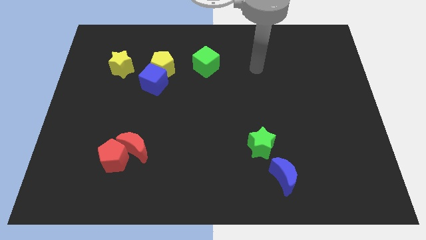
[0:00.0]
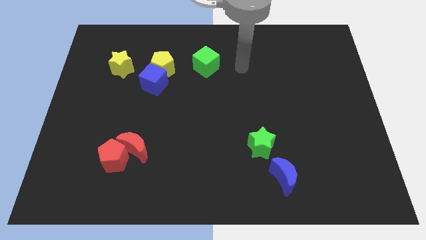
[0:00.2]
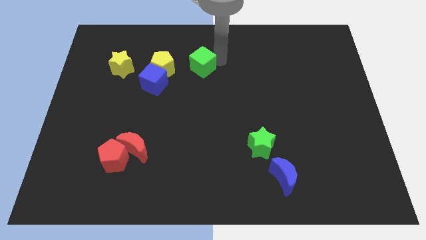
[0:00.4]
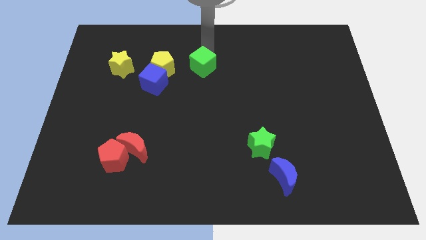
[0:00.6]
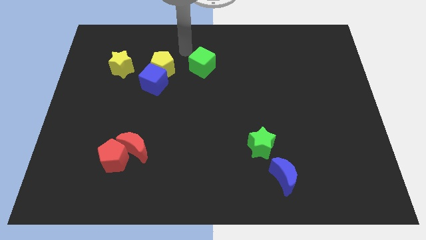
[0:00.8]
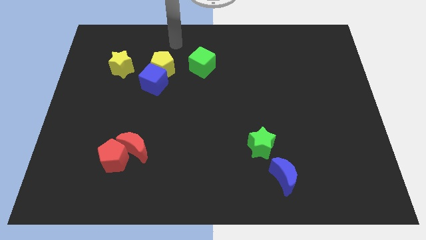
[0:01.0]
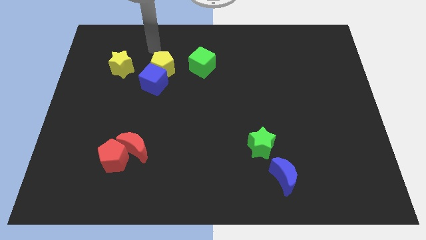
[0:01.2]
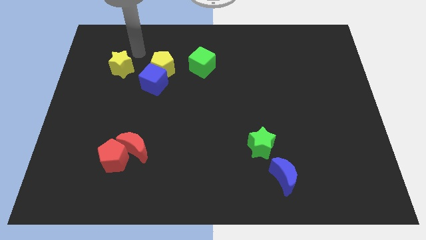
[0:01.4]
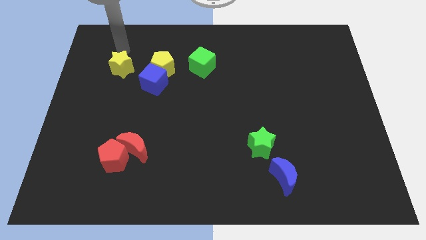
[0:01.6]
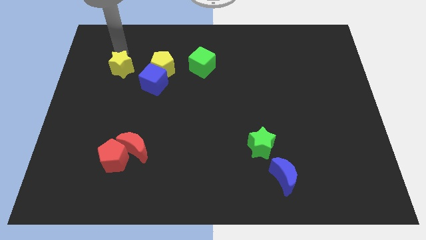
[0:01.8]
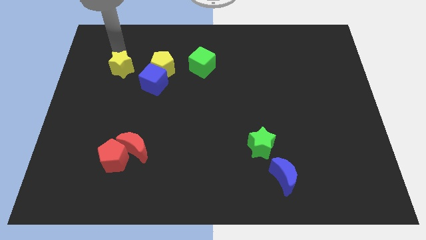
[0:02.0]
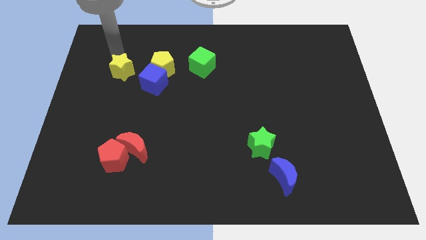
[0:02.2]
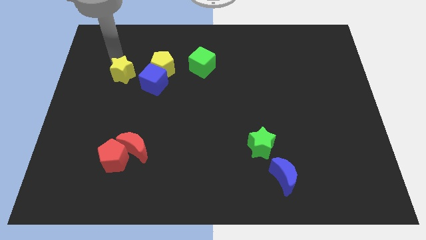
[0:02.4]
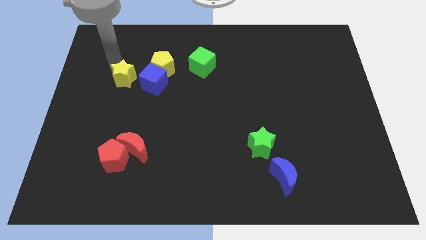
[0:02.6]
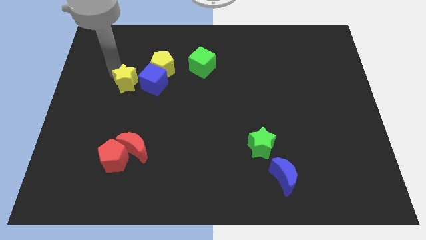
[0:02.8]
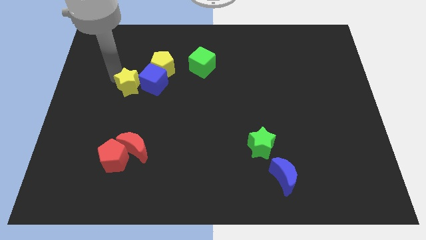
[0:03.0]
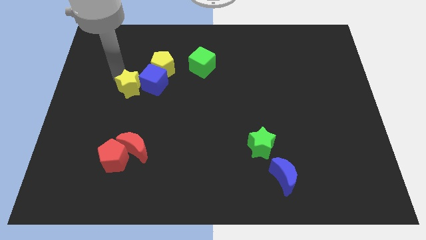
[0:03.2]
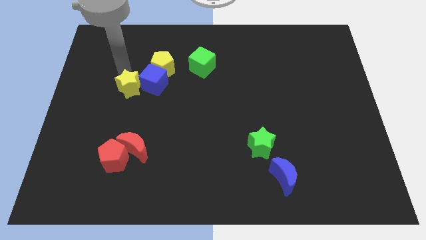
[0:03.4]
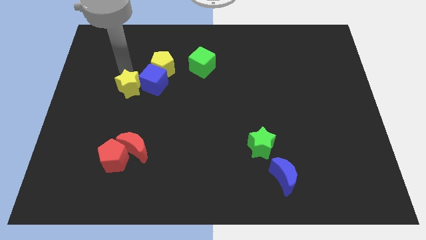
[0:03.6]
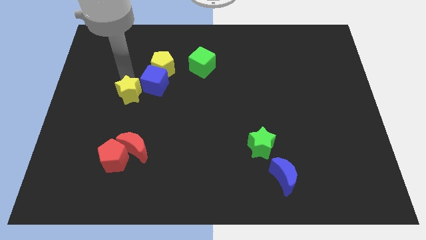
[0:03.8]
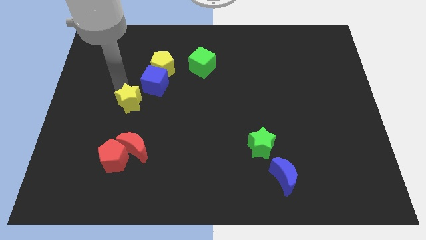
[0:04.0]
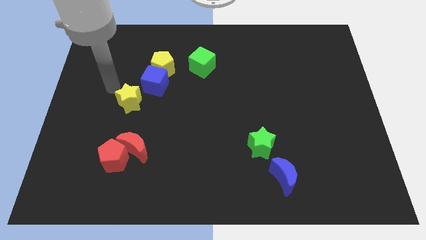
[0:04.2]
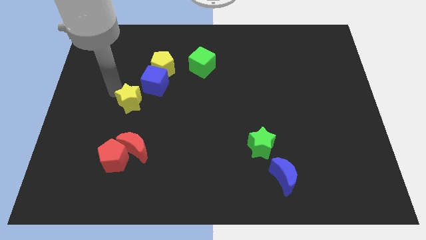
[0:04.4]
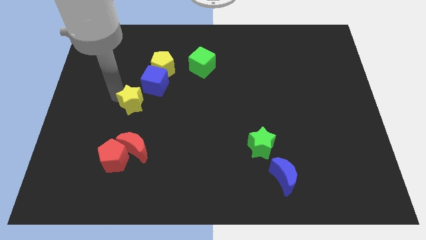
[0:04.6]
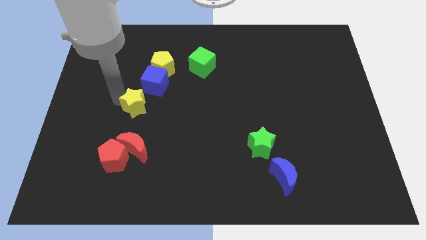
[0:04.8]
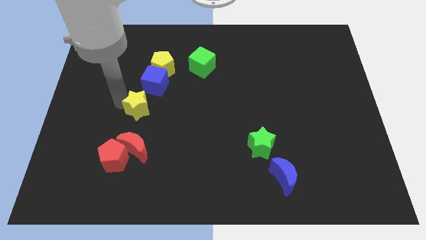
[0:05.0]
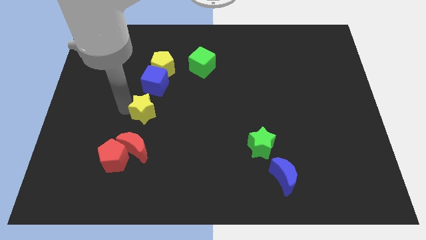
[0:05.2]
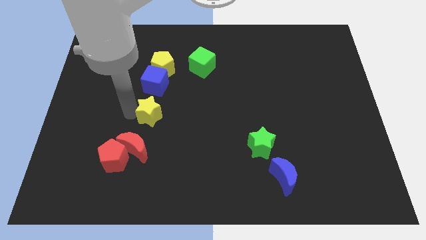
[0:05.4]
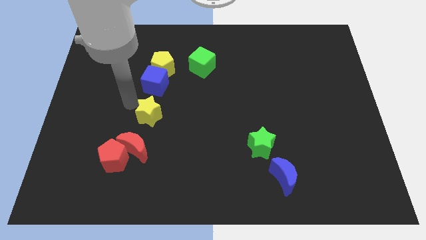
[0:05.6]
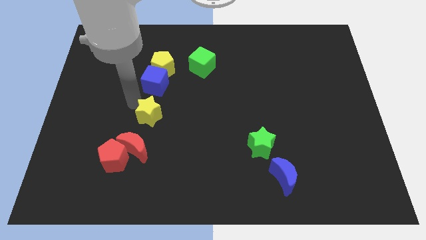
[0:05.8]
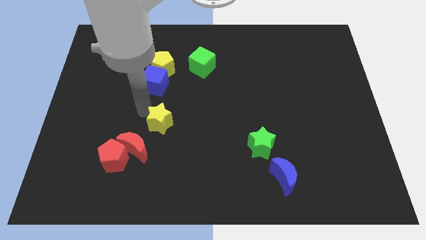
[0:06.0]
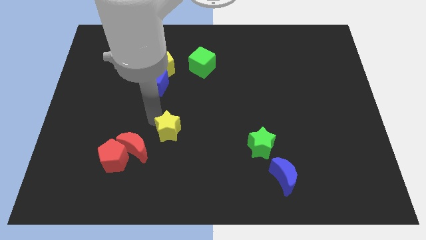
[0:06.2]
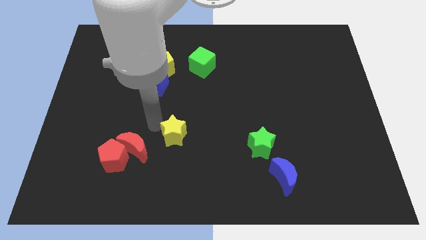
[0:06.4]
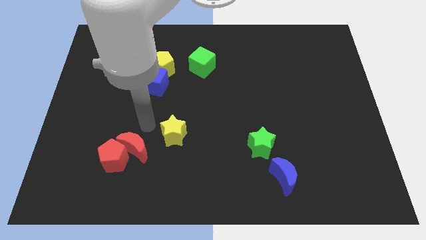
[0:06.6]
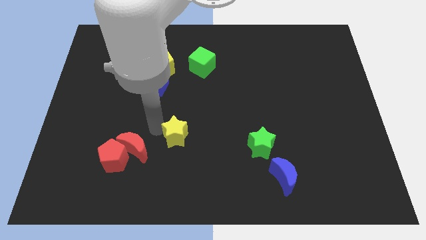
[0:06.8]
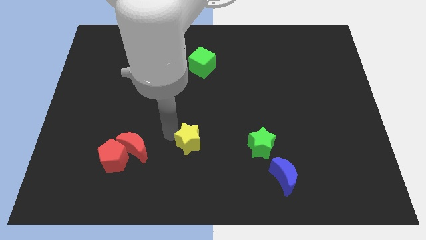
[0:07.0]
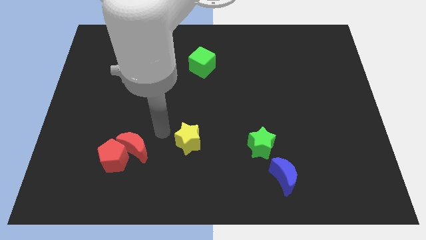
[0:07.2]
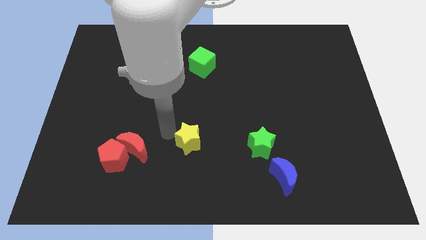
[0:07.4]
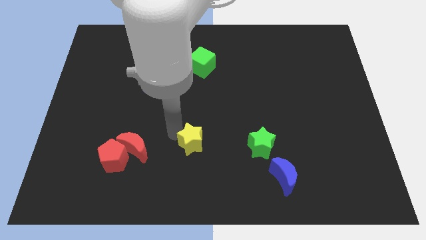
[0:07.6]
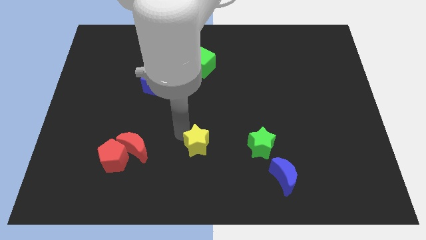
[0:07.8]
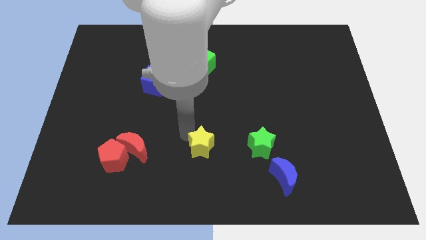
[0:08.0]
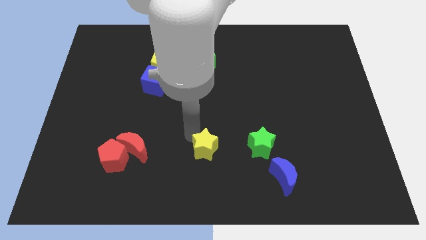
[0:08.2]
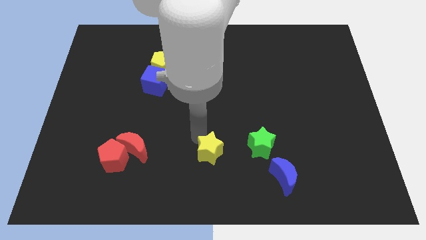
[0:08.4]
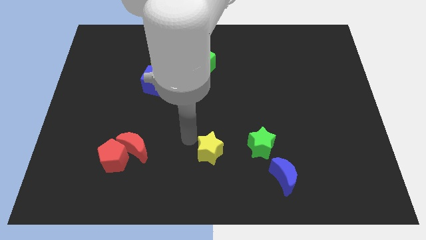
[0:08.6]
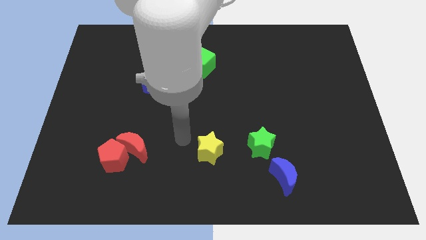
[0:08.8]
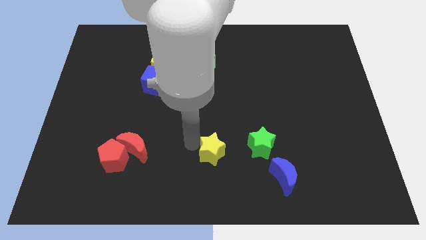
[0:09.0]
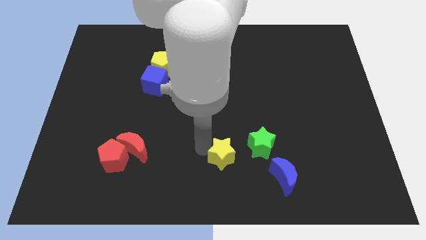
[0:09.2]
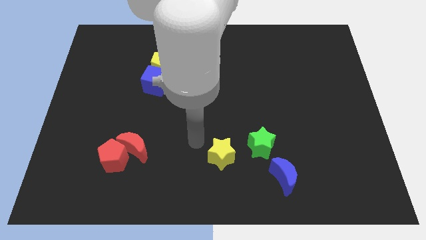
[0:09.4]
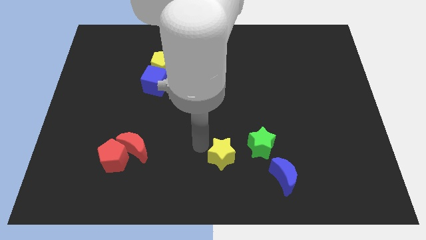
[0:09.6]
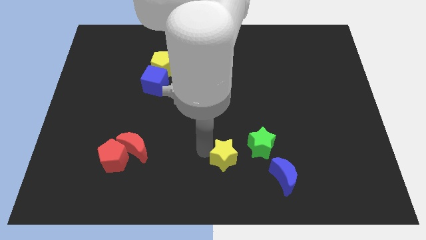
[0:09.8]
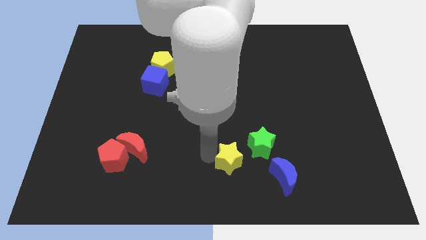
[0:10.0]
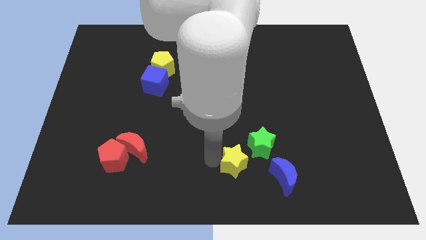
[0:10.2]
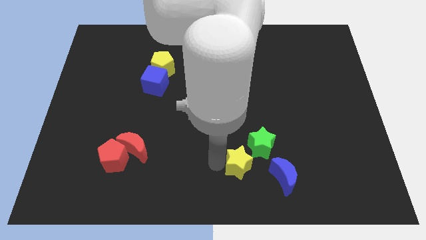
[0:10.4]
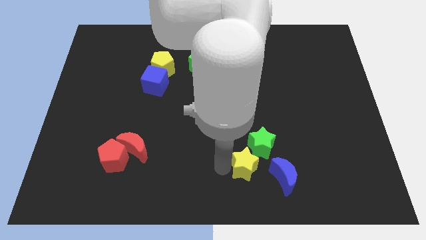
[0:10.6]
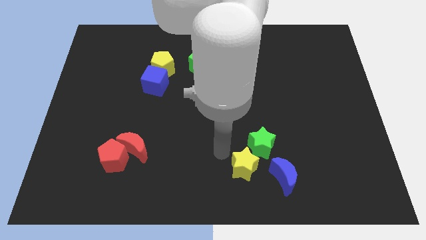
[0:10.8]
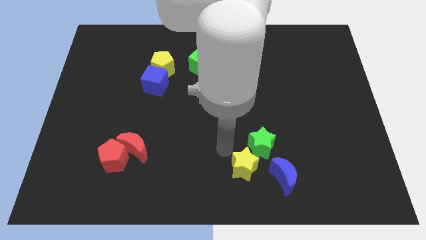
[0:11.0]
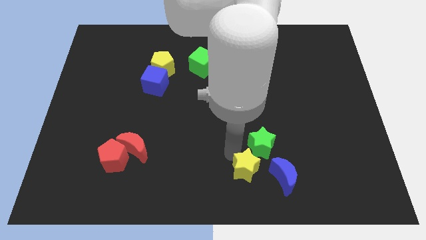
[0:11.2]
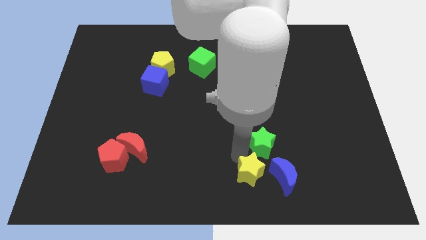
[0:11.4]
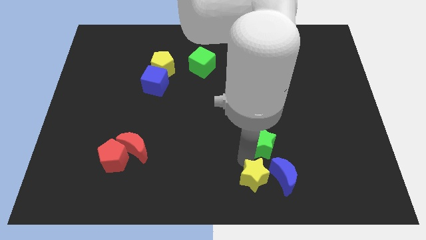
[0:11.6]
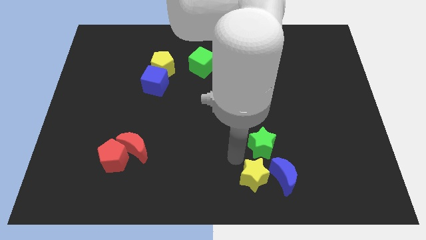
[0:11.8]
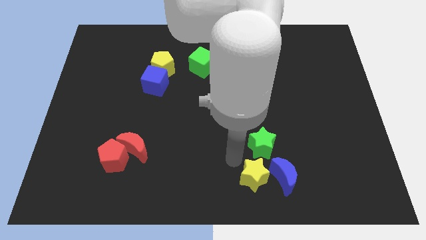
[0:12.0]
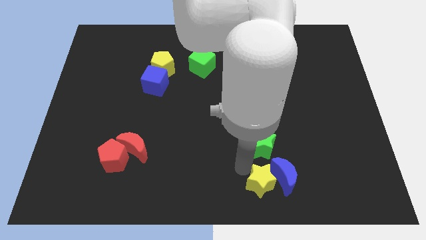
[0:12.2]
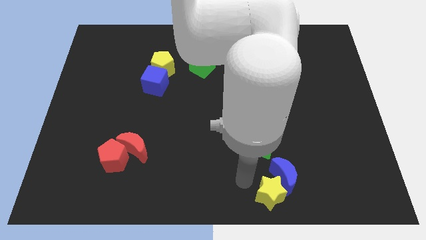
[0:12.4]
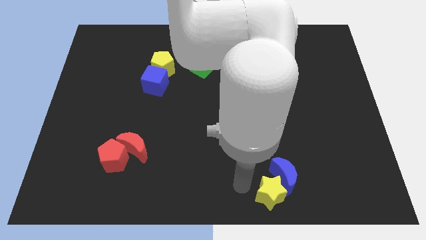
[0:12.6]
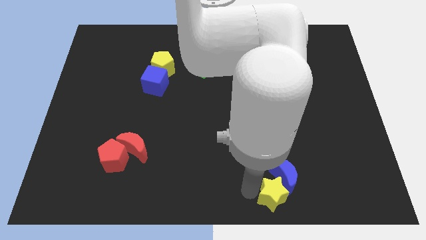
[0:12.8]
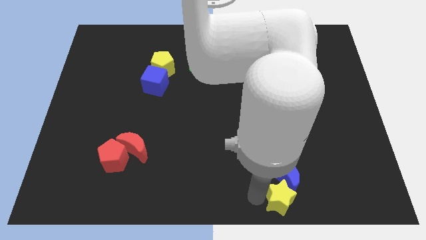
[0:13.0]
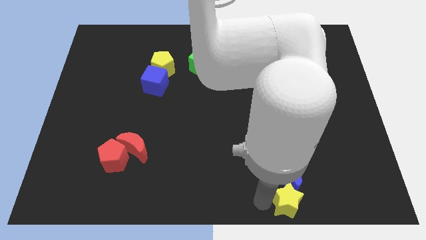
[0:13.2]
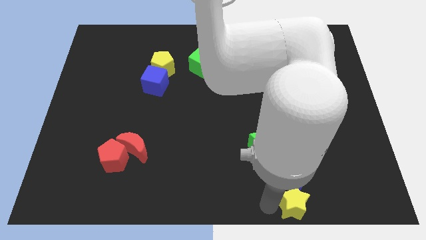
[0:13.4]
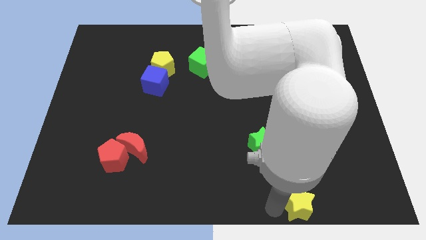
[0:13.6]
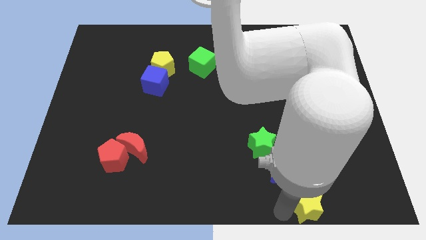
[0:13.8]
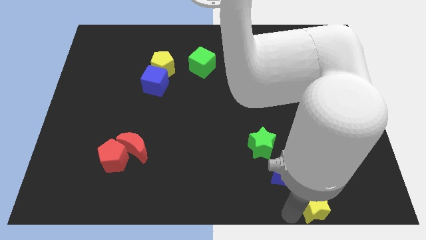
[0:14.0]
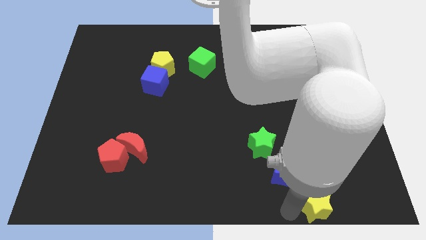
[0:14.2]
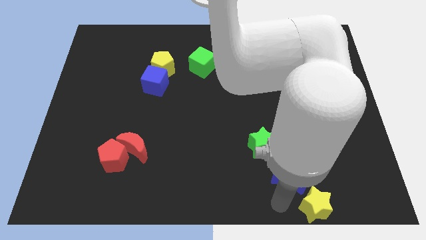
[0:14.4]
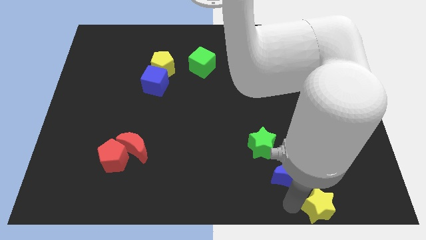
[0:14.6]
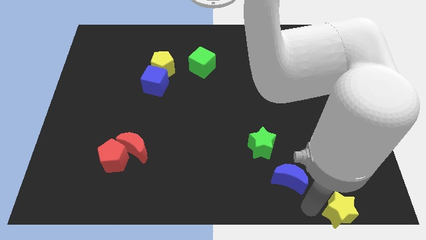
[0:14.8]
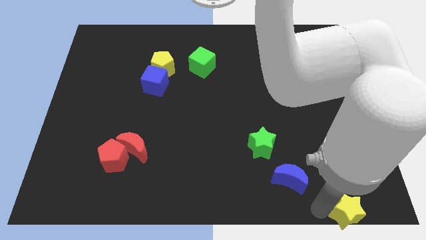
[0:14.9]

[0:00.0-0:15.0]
slide the yellow star to the lower right corner
